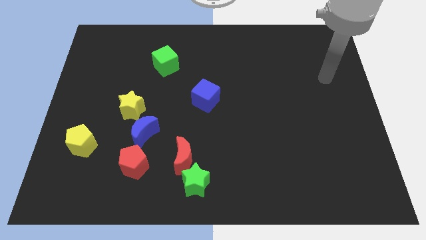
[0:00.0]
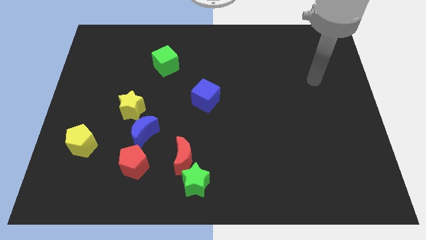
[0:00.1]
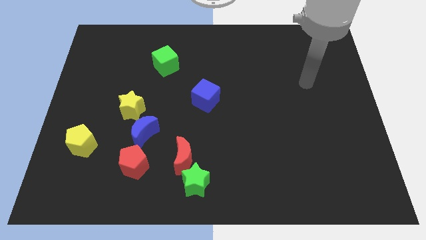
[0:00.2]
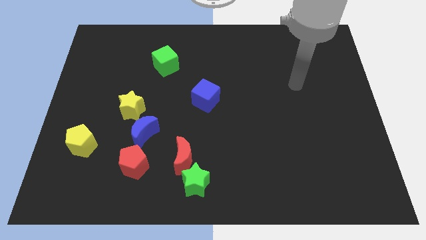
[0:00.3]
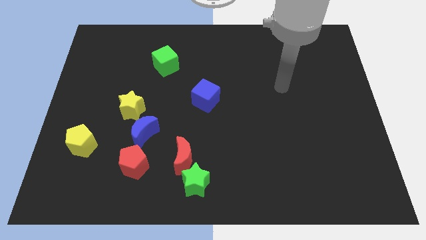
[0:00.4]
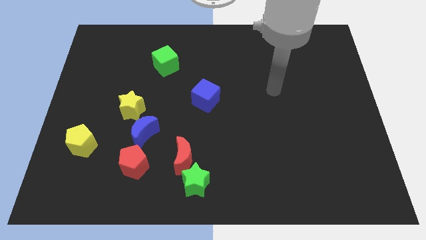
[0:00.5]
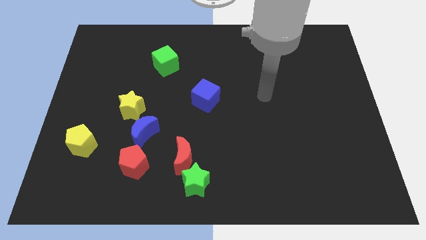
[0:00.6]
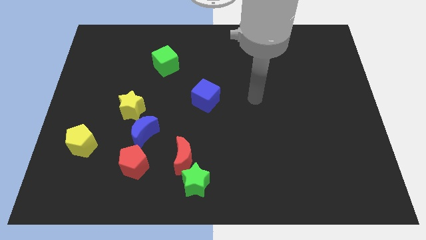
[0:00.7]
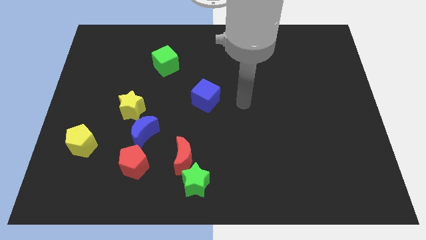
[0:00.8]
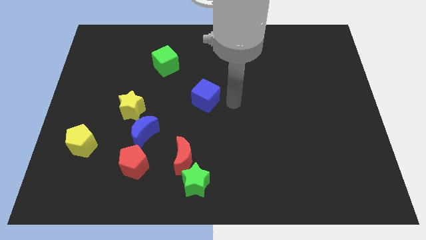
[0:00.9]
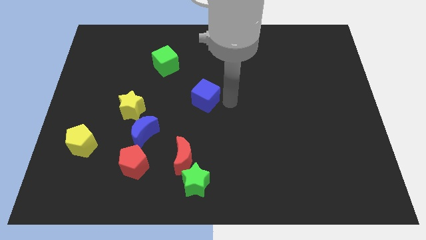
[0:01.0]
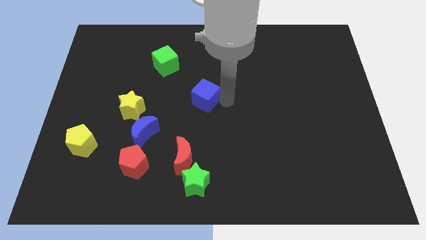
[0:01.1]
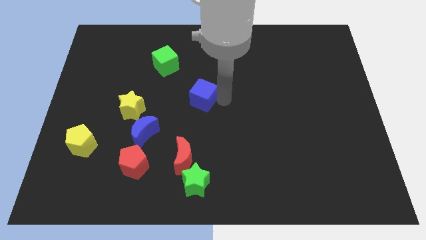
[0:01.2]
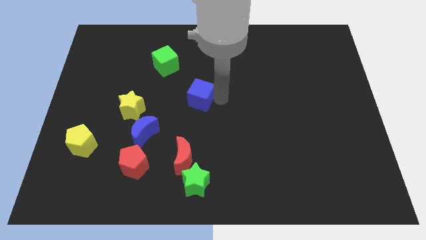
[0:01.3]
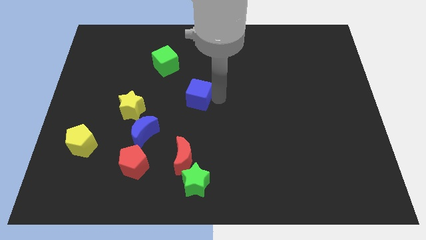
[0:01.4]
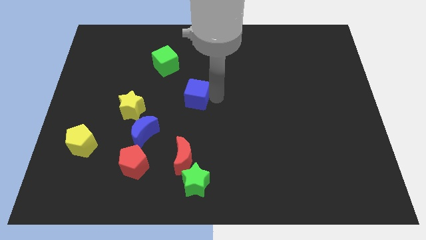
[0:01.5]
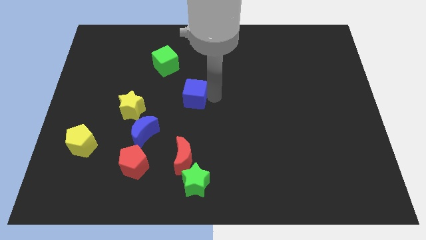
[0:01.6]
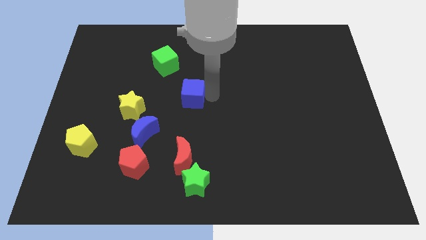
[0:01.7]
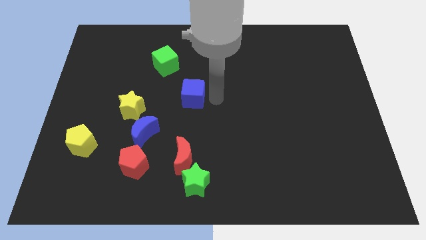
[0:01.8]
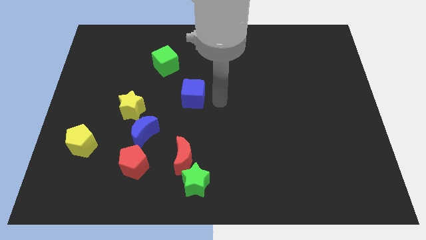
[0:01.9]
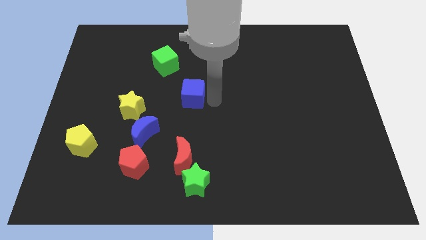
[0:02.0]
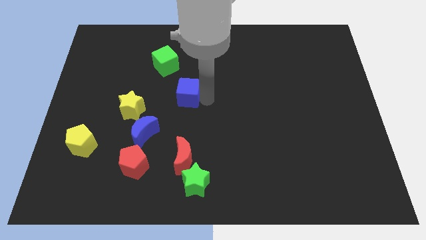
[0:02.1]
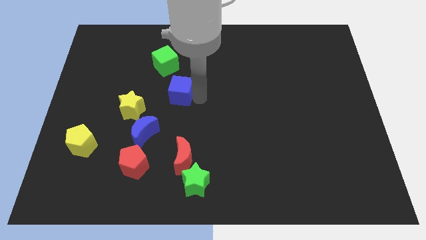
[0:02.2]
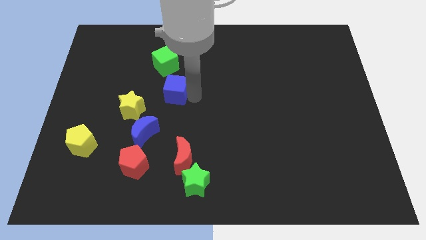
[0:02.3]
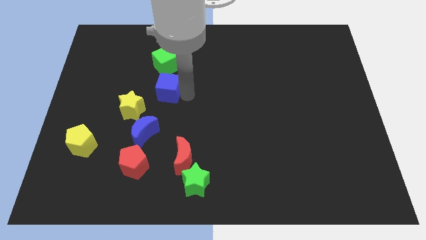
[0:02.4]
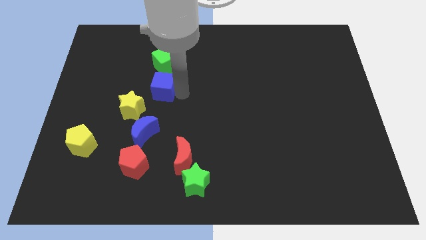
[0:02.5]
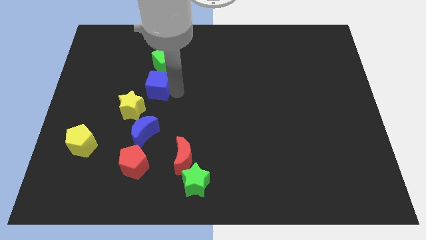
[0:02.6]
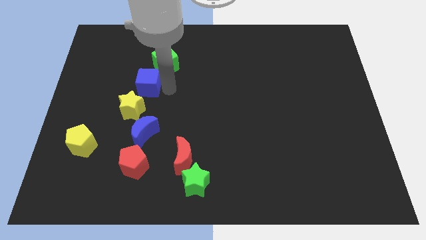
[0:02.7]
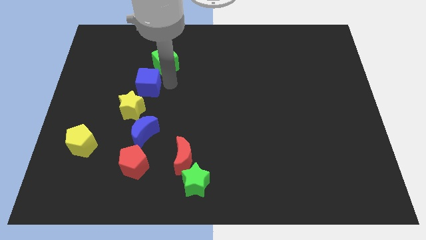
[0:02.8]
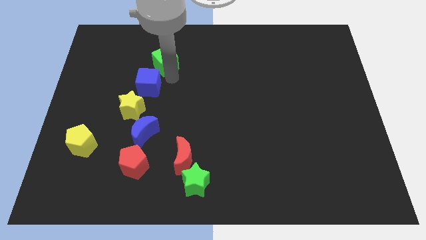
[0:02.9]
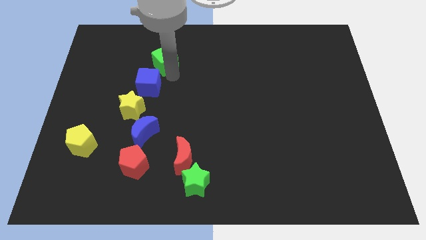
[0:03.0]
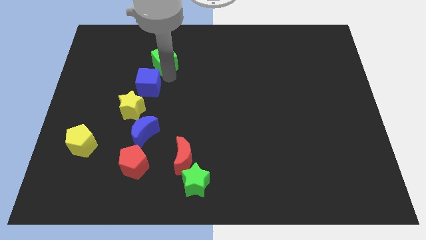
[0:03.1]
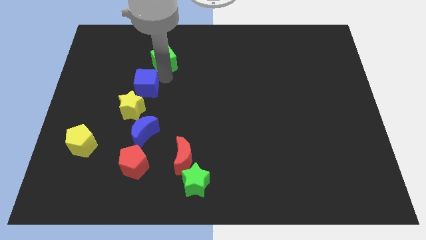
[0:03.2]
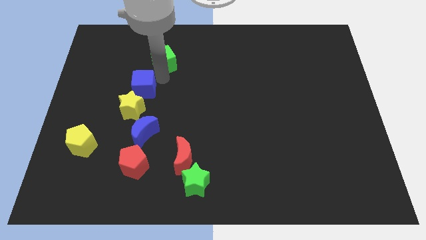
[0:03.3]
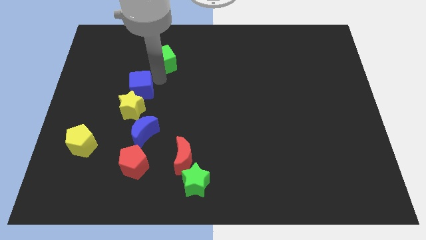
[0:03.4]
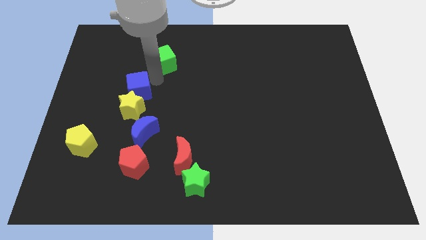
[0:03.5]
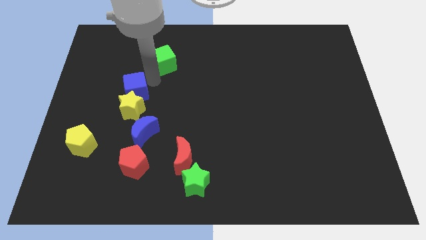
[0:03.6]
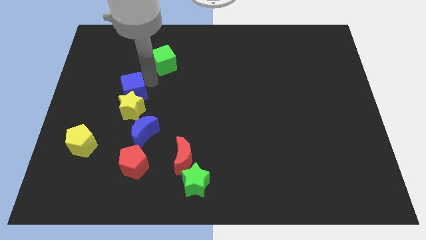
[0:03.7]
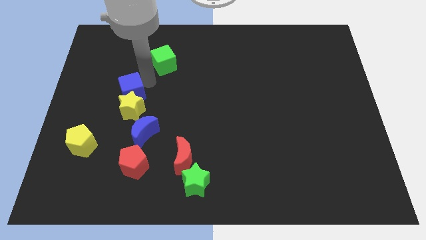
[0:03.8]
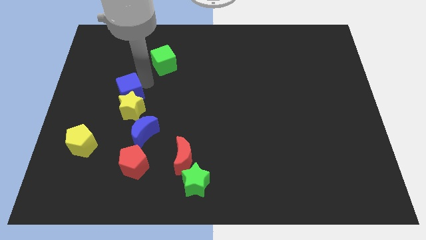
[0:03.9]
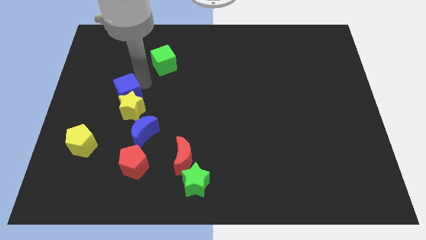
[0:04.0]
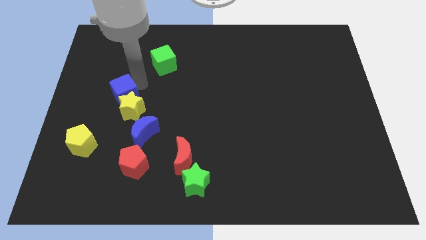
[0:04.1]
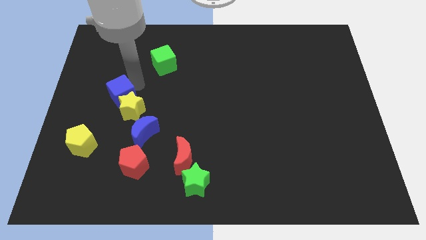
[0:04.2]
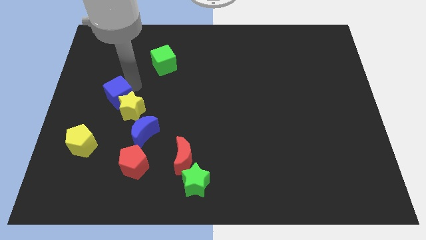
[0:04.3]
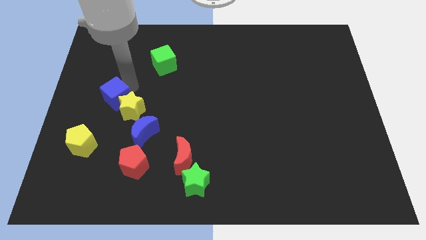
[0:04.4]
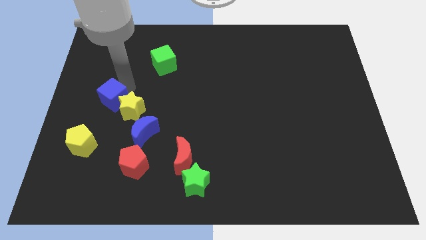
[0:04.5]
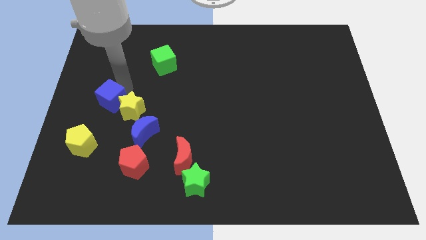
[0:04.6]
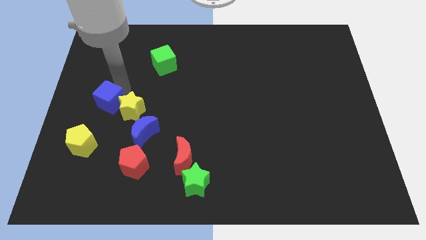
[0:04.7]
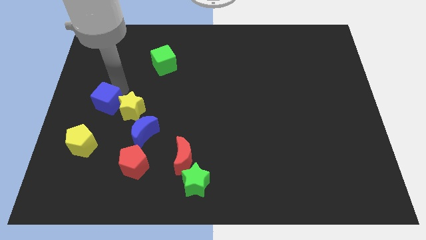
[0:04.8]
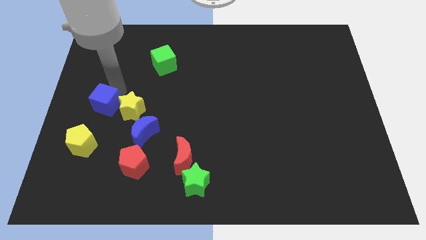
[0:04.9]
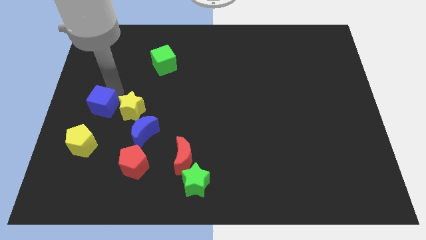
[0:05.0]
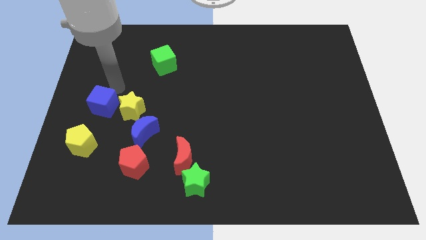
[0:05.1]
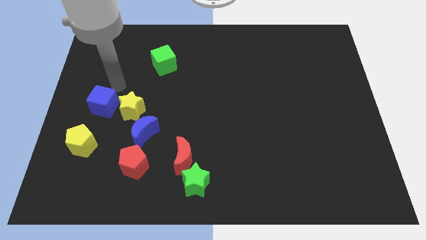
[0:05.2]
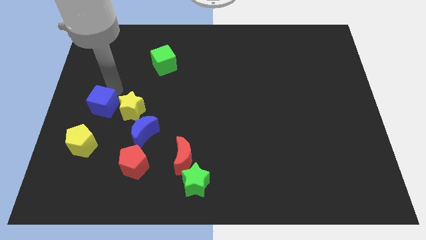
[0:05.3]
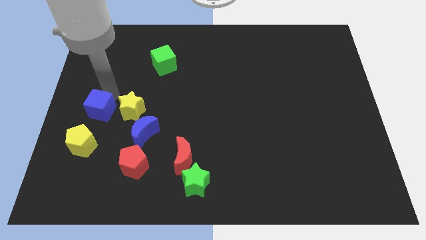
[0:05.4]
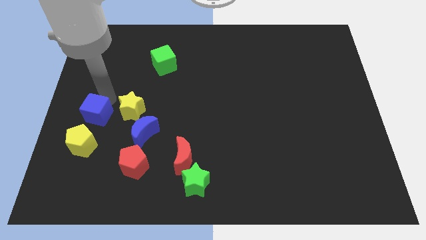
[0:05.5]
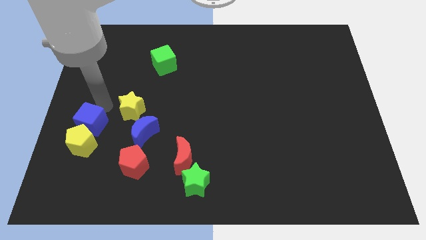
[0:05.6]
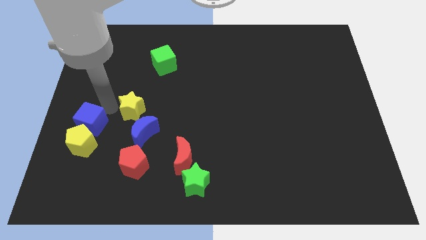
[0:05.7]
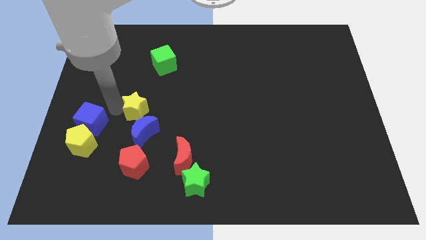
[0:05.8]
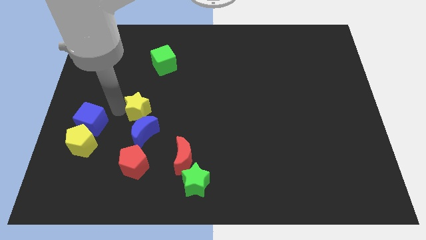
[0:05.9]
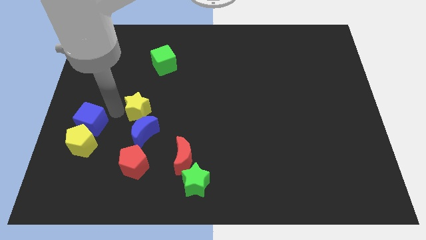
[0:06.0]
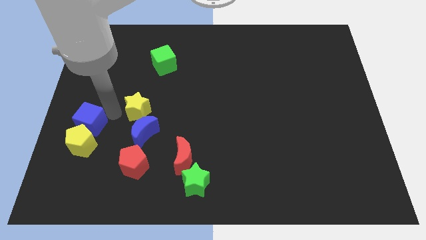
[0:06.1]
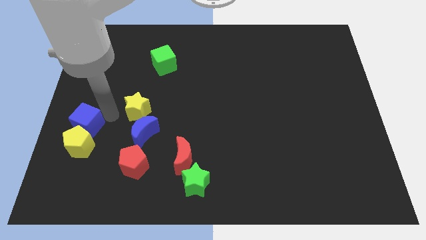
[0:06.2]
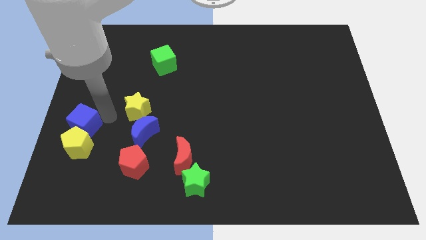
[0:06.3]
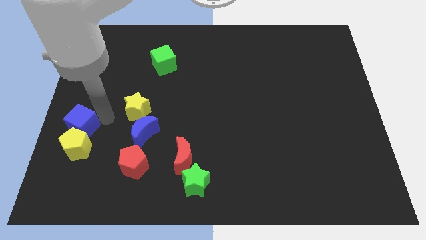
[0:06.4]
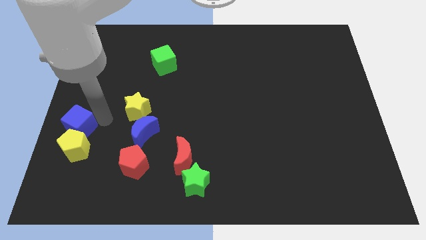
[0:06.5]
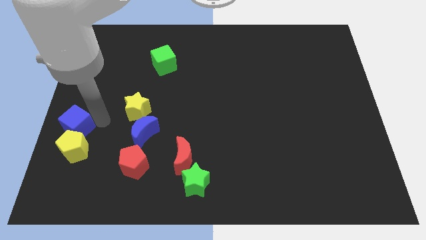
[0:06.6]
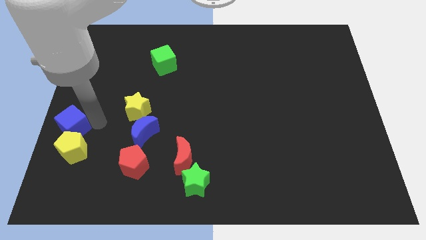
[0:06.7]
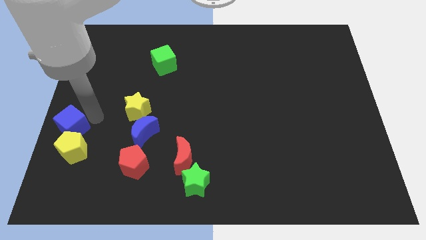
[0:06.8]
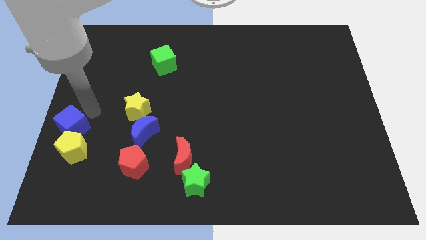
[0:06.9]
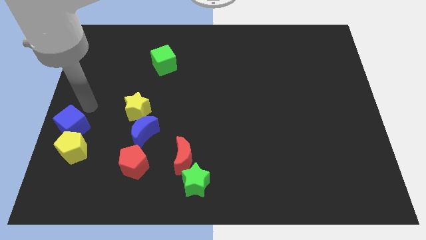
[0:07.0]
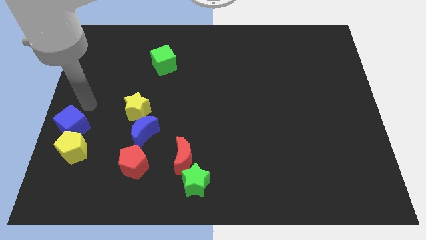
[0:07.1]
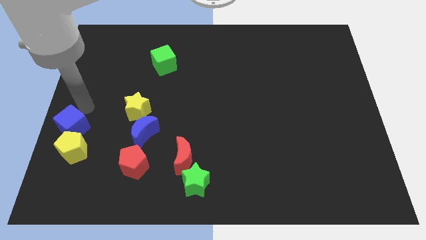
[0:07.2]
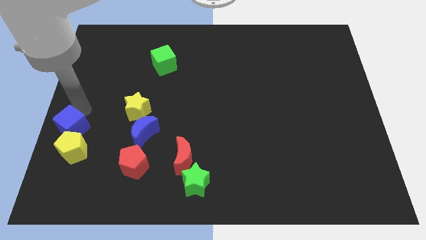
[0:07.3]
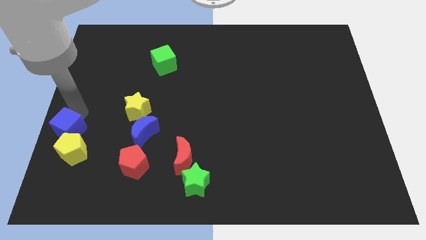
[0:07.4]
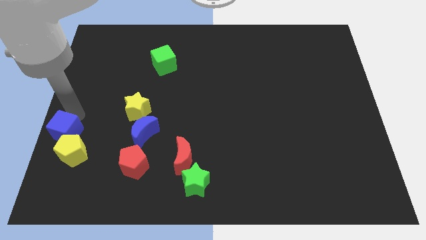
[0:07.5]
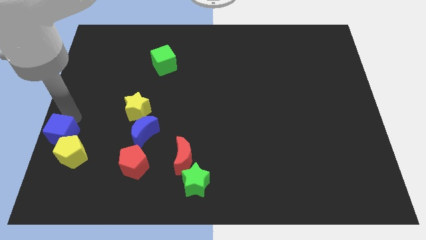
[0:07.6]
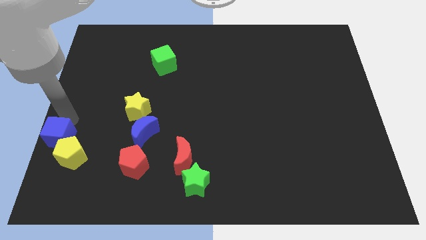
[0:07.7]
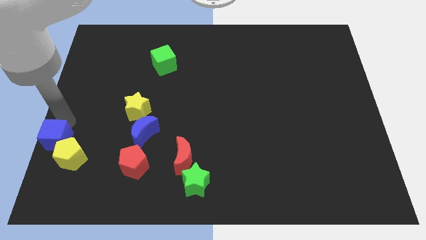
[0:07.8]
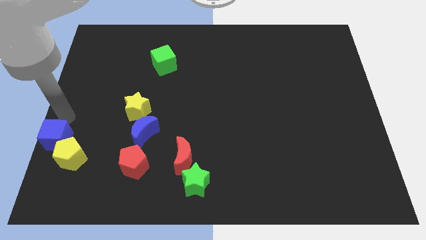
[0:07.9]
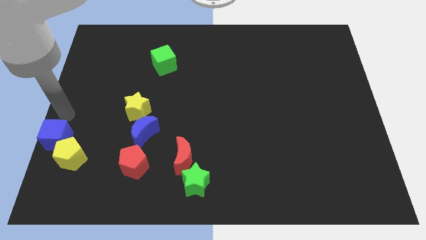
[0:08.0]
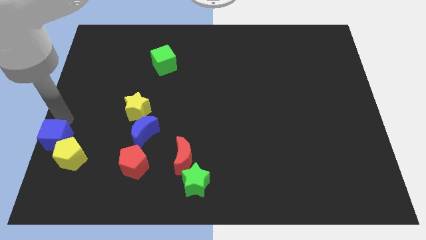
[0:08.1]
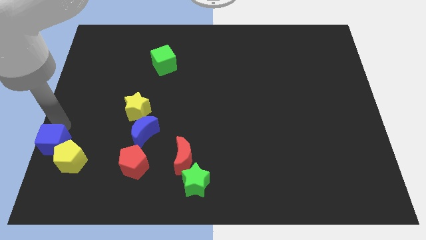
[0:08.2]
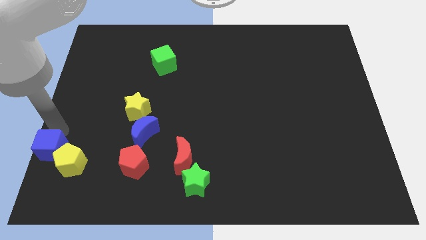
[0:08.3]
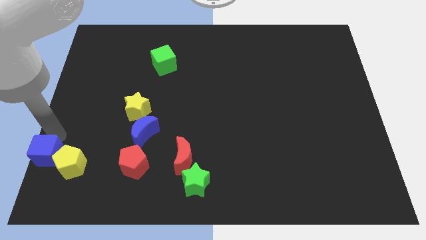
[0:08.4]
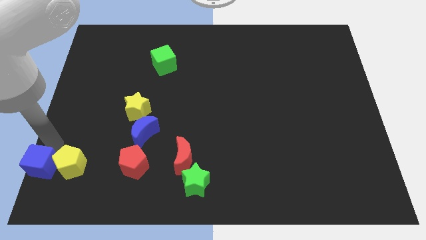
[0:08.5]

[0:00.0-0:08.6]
move the blue cube to the lower left corner
